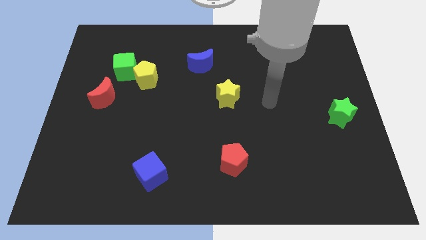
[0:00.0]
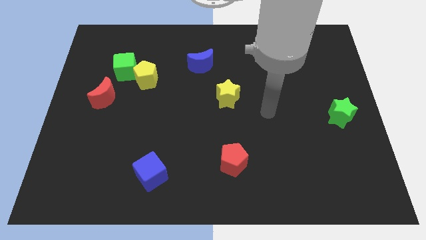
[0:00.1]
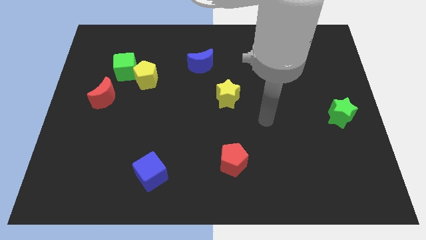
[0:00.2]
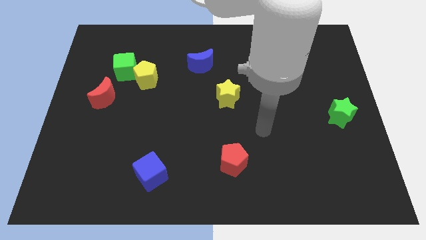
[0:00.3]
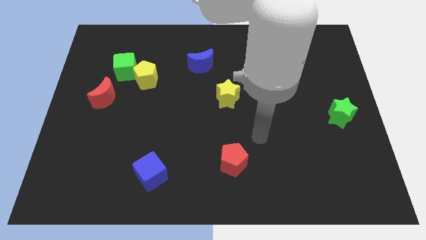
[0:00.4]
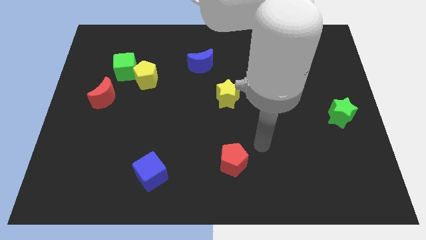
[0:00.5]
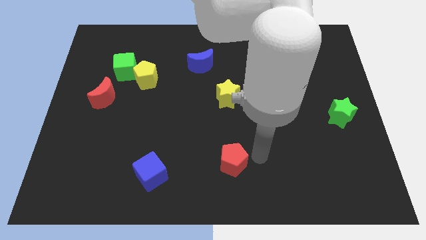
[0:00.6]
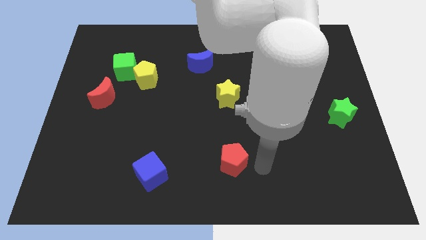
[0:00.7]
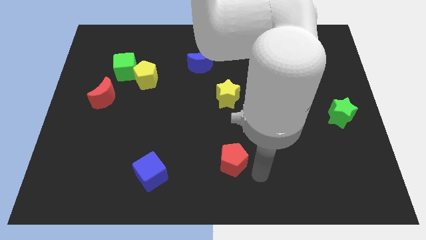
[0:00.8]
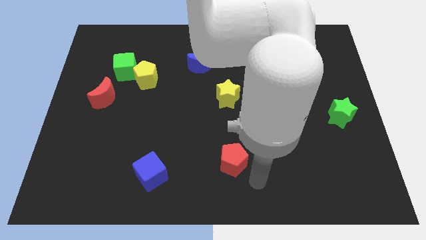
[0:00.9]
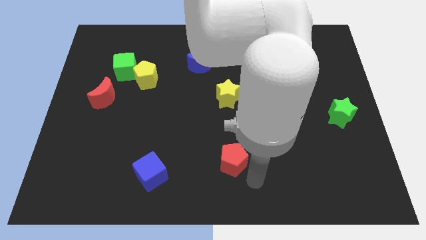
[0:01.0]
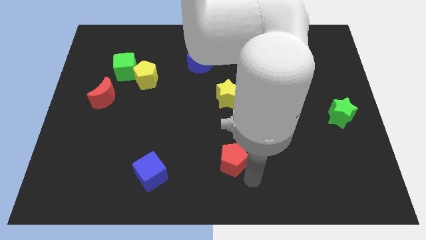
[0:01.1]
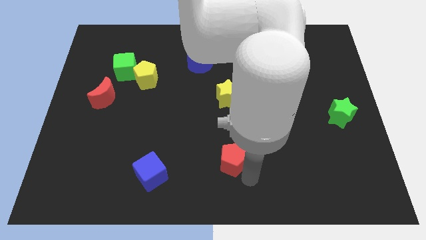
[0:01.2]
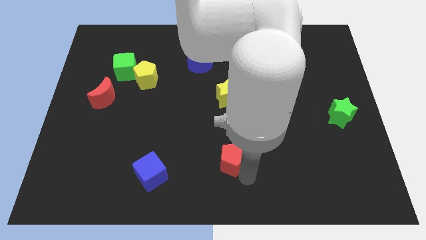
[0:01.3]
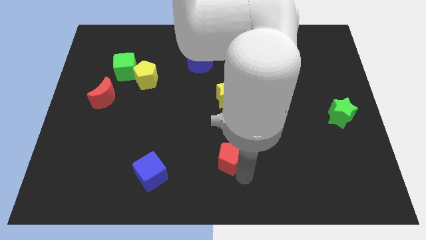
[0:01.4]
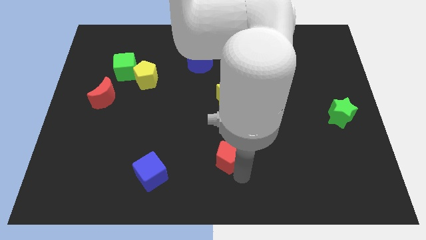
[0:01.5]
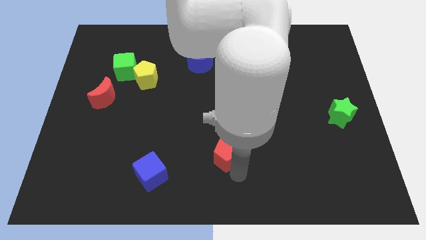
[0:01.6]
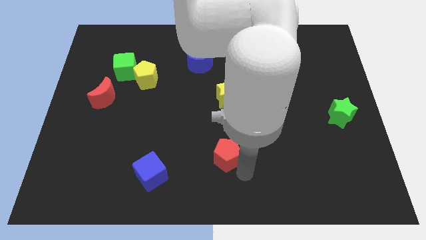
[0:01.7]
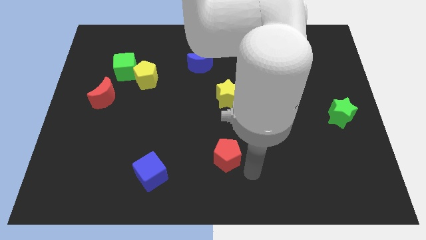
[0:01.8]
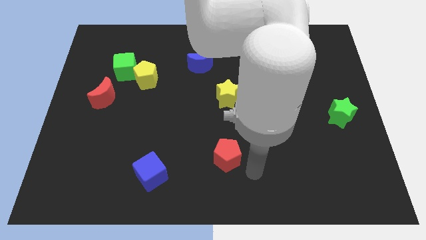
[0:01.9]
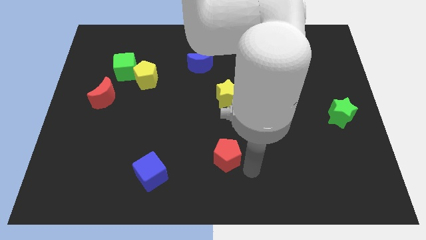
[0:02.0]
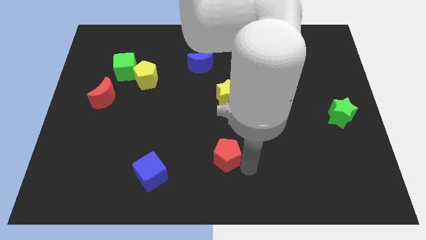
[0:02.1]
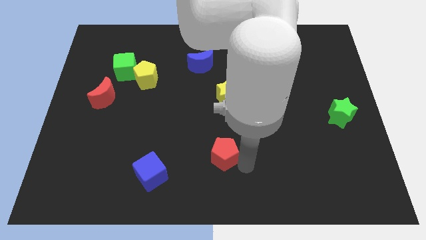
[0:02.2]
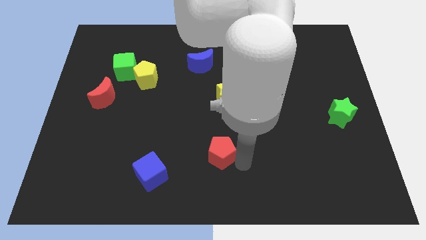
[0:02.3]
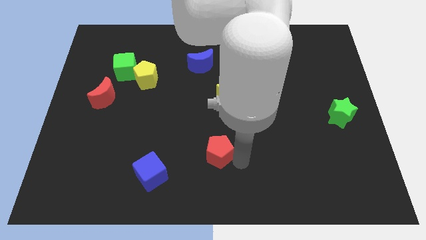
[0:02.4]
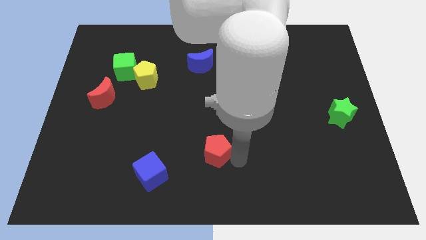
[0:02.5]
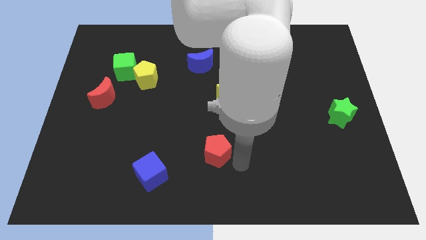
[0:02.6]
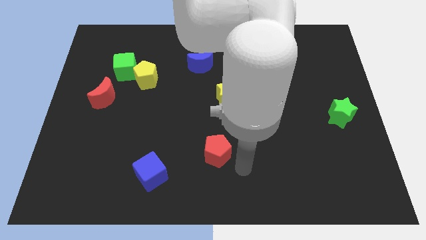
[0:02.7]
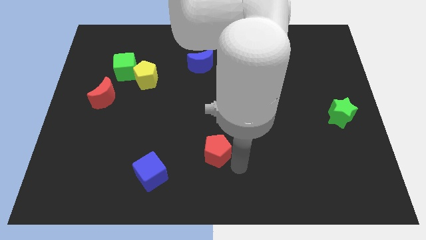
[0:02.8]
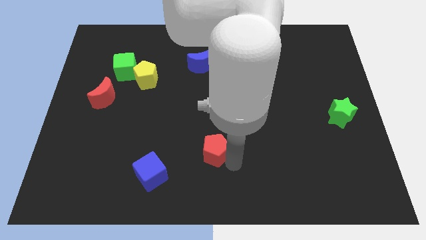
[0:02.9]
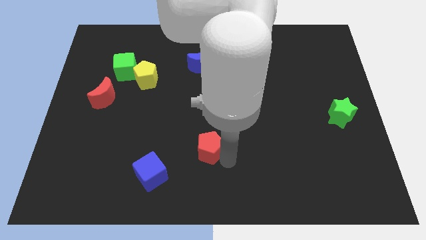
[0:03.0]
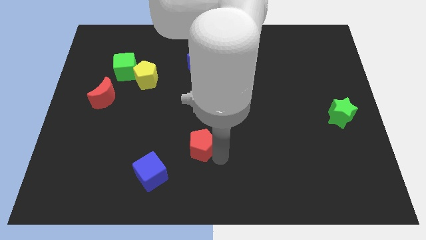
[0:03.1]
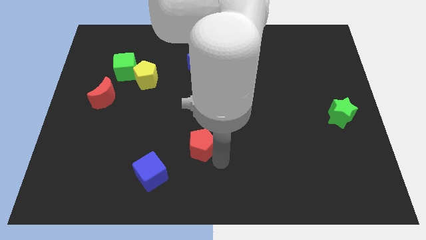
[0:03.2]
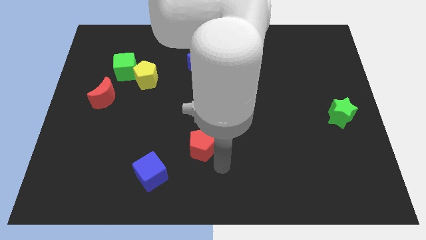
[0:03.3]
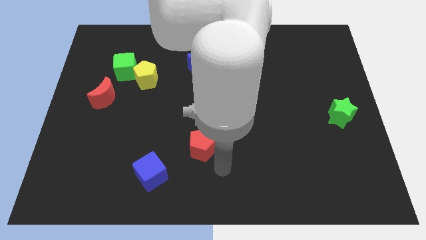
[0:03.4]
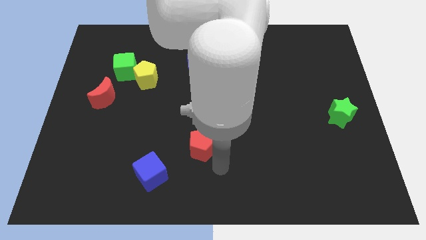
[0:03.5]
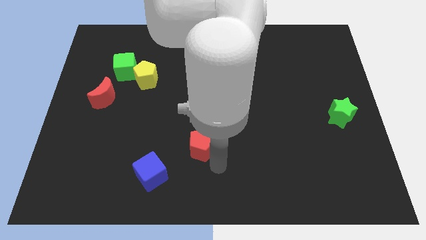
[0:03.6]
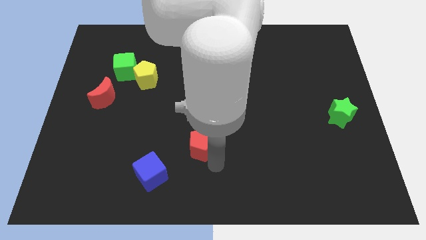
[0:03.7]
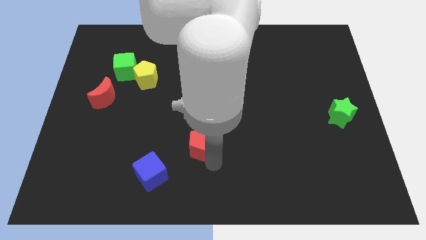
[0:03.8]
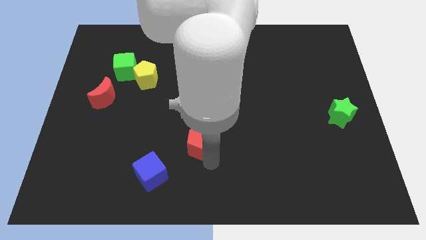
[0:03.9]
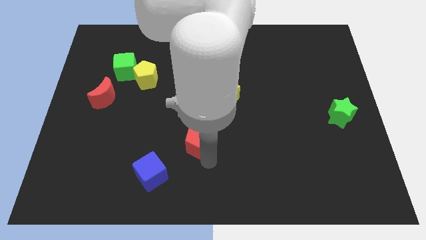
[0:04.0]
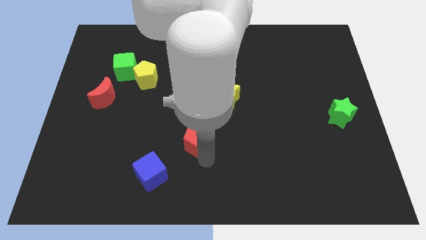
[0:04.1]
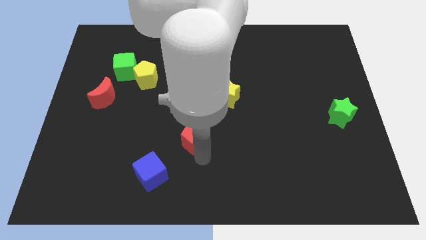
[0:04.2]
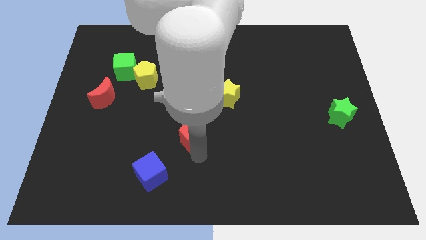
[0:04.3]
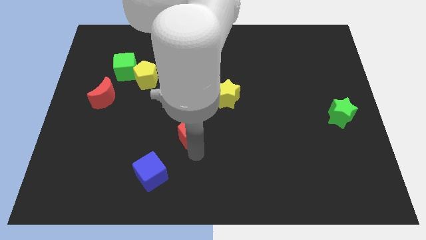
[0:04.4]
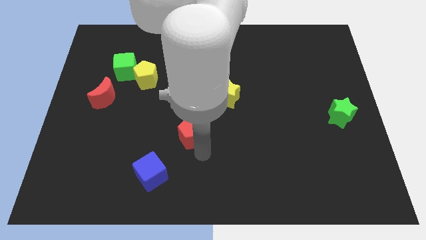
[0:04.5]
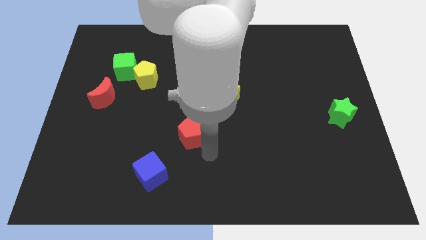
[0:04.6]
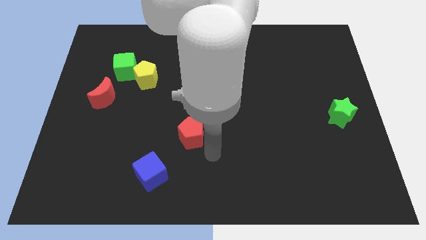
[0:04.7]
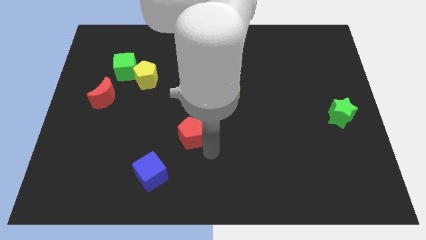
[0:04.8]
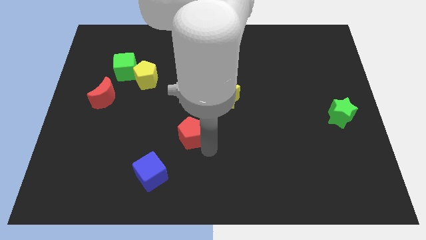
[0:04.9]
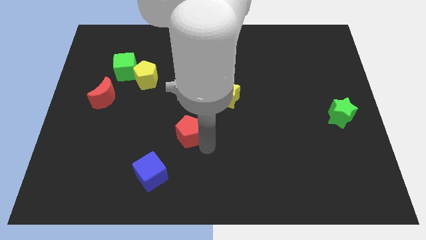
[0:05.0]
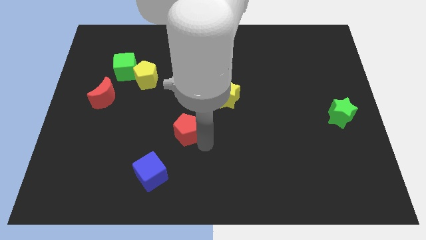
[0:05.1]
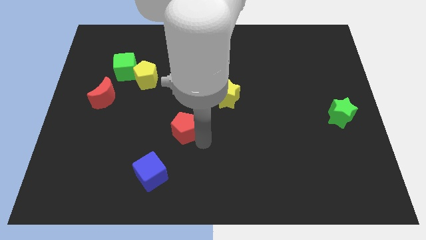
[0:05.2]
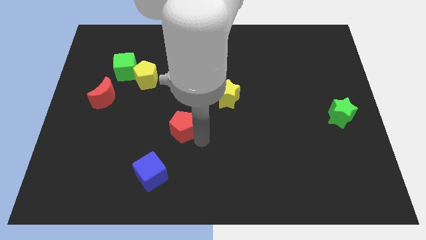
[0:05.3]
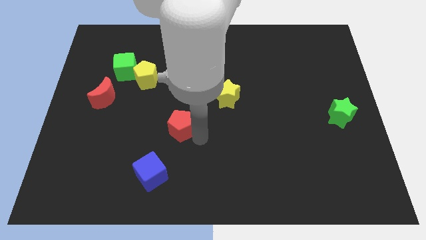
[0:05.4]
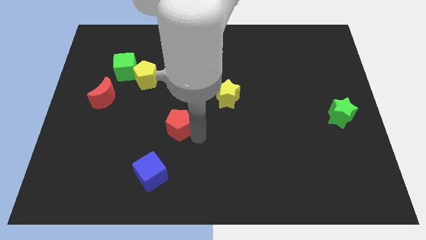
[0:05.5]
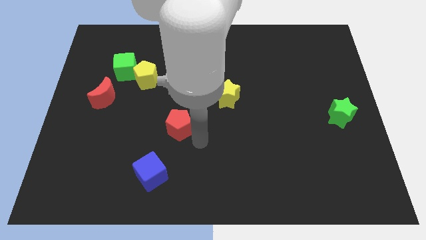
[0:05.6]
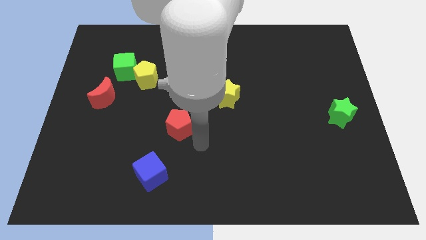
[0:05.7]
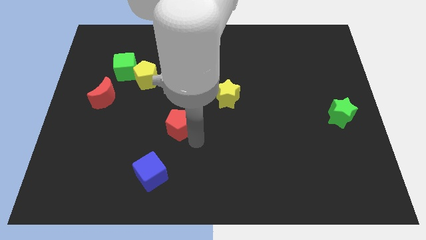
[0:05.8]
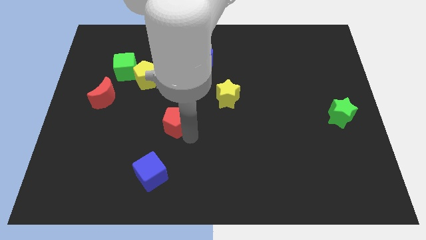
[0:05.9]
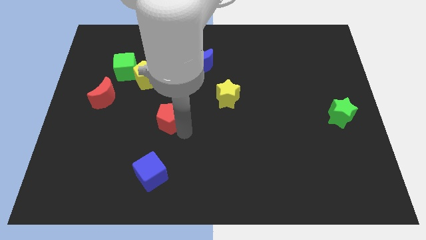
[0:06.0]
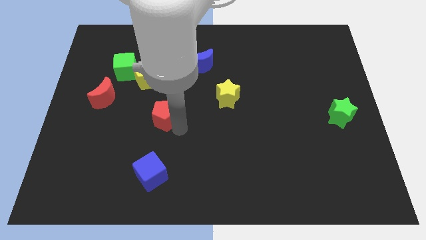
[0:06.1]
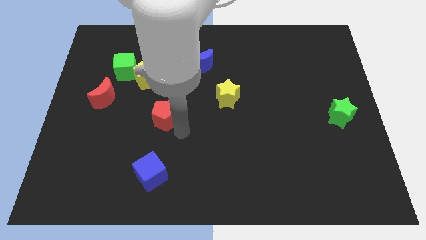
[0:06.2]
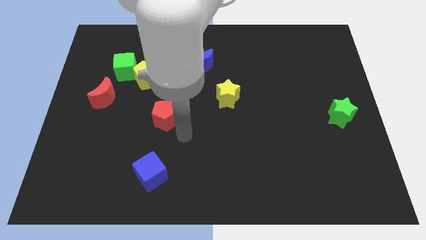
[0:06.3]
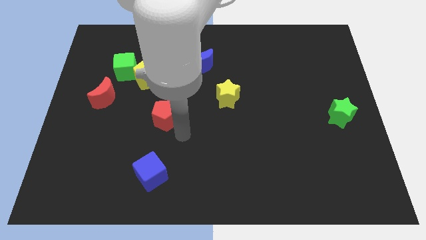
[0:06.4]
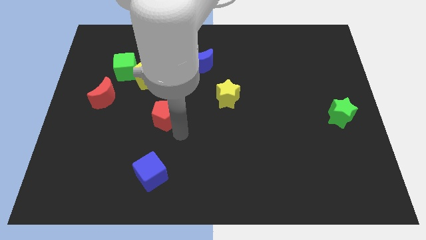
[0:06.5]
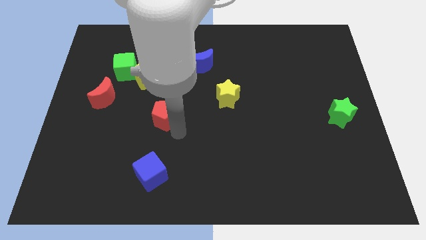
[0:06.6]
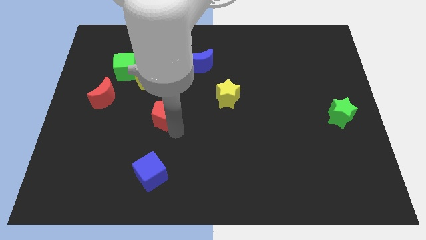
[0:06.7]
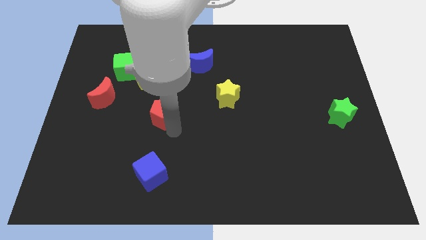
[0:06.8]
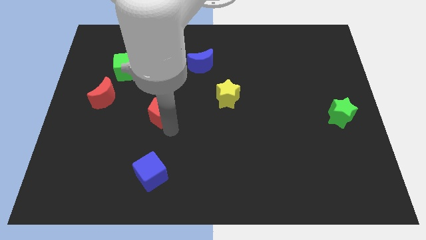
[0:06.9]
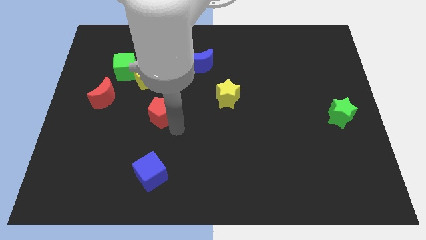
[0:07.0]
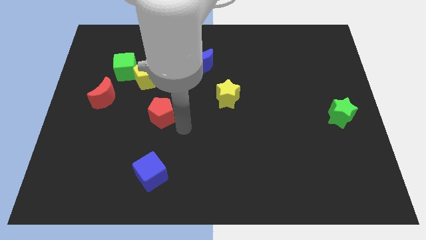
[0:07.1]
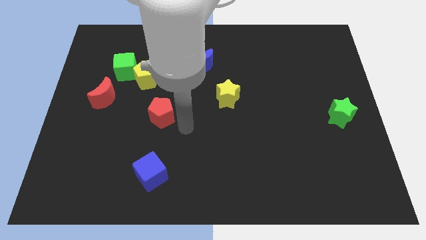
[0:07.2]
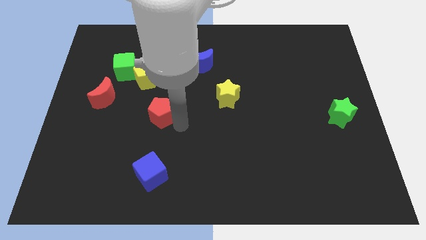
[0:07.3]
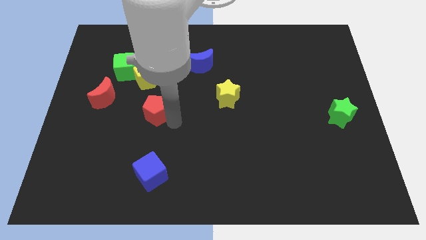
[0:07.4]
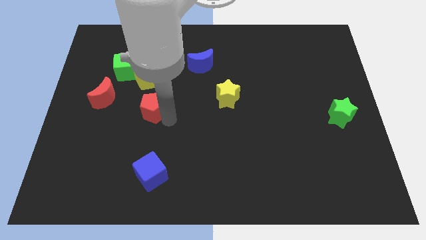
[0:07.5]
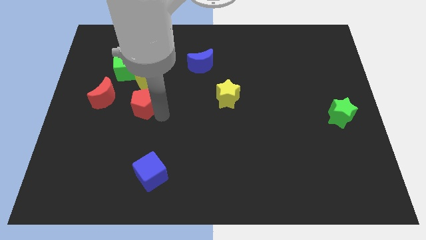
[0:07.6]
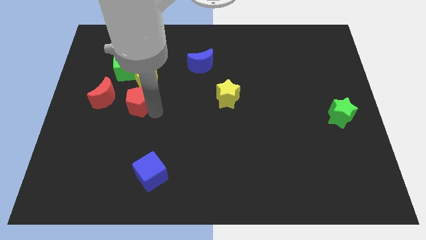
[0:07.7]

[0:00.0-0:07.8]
slide the red pentagon to the bottom side of the green cube
